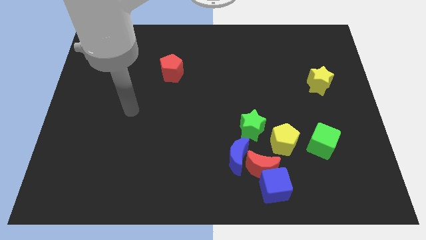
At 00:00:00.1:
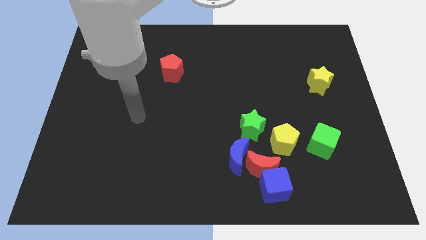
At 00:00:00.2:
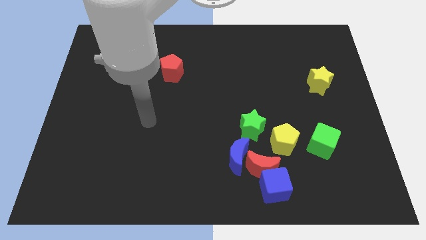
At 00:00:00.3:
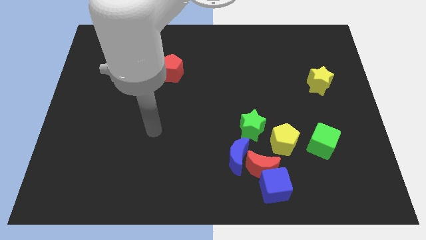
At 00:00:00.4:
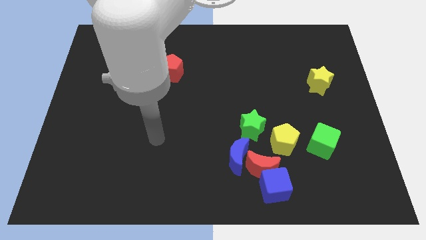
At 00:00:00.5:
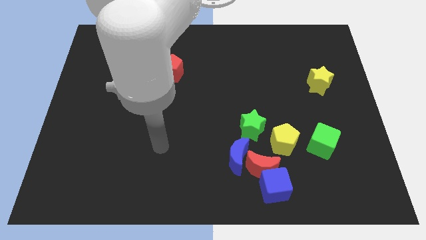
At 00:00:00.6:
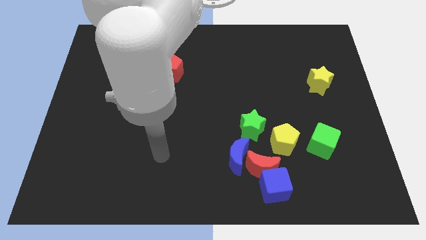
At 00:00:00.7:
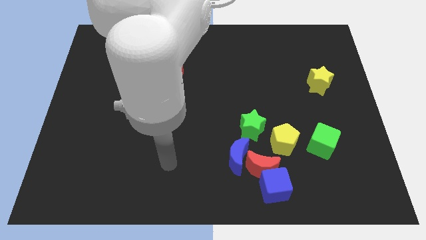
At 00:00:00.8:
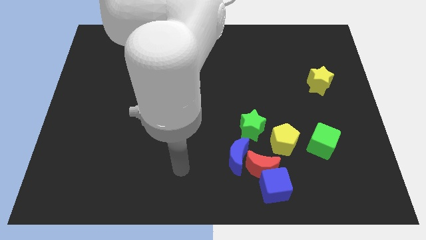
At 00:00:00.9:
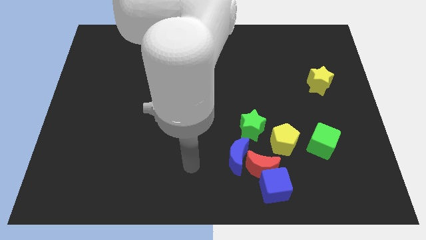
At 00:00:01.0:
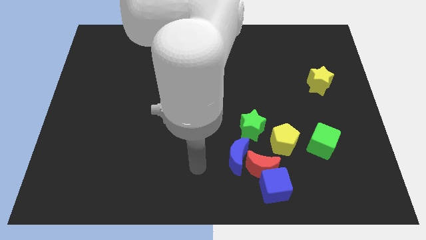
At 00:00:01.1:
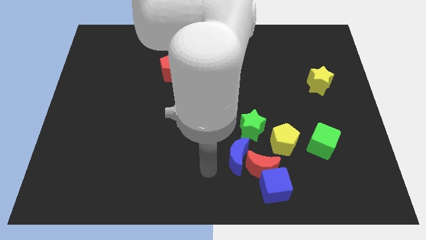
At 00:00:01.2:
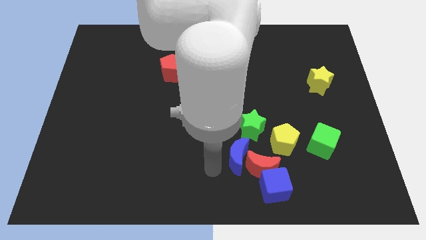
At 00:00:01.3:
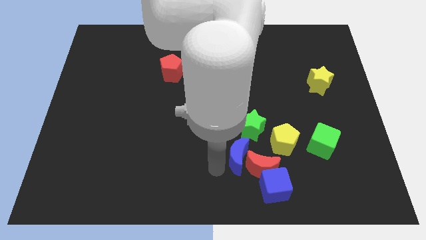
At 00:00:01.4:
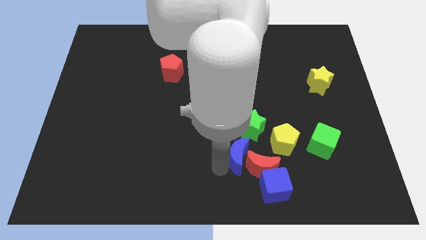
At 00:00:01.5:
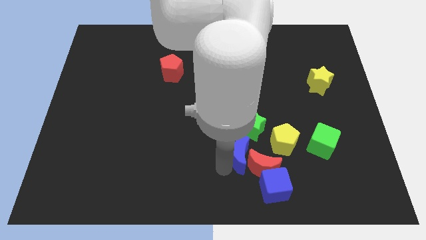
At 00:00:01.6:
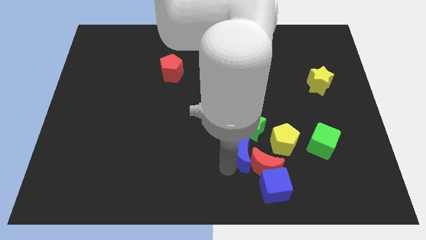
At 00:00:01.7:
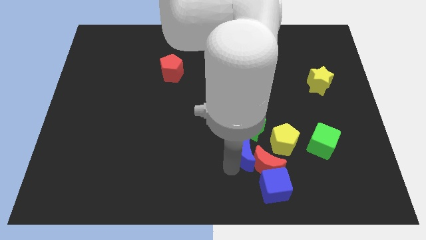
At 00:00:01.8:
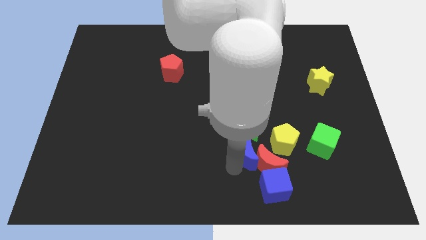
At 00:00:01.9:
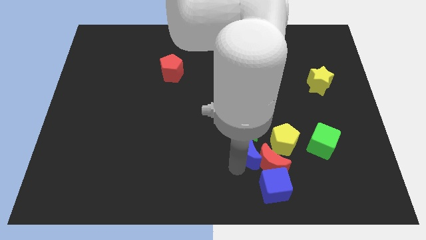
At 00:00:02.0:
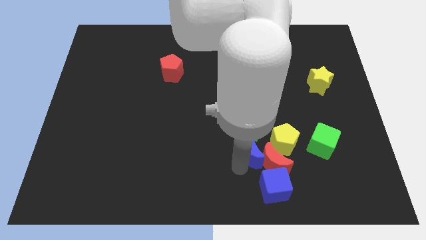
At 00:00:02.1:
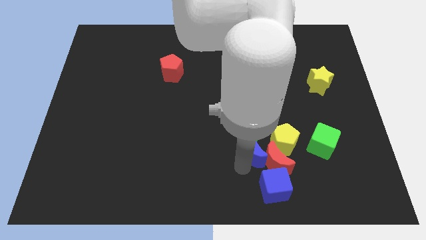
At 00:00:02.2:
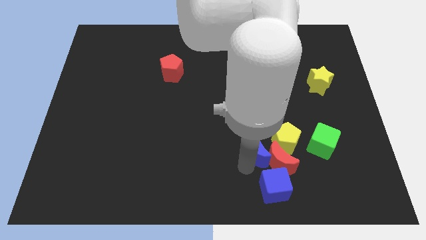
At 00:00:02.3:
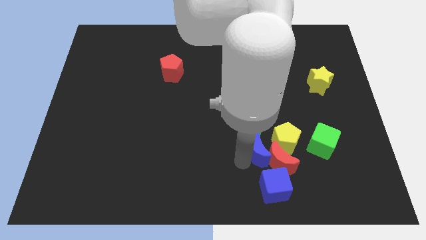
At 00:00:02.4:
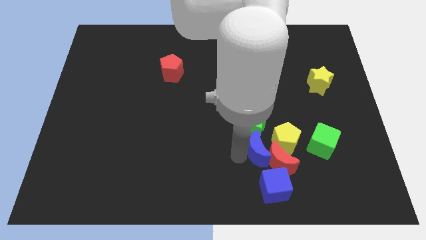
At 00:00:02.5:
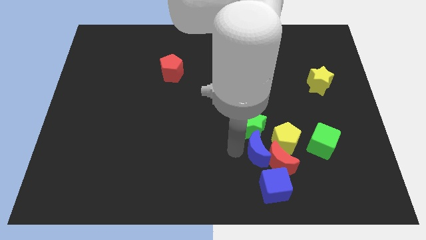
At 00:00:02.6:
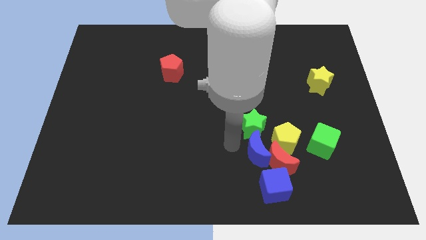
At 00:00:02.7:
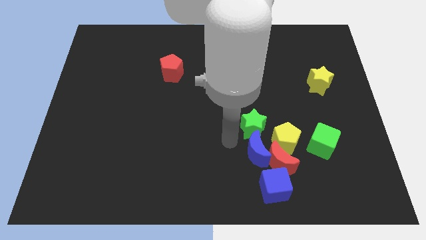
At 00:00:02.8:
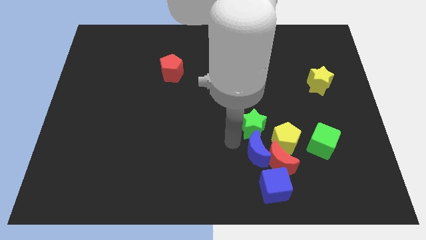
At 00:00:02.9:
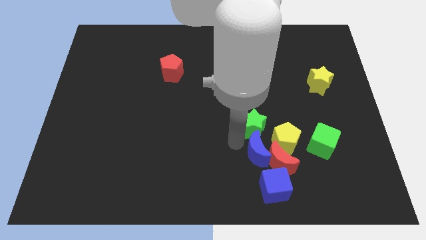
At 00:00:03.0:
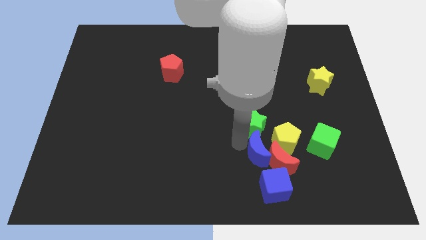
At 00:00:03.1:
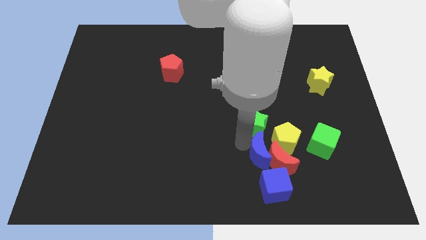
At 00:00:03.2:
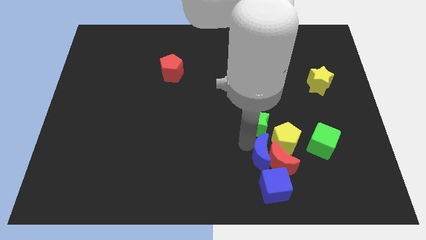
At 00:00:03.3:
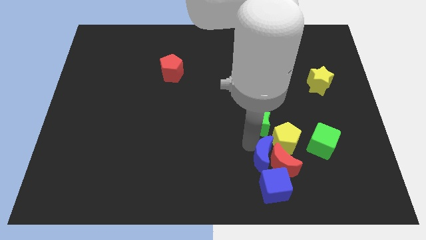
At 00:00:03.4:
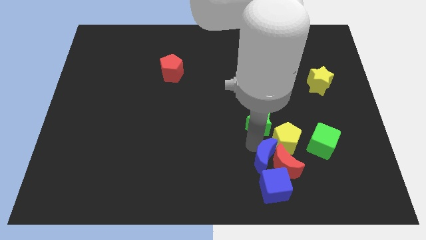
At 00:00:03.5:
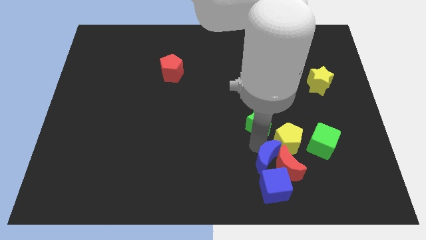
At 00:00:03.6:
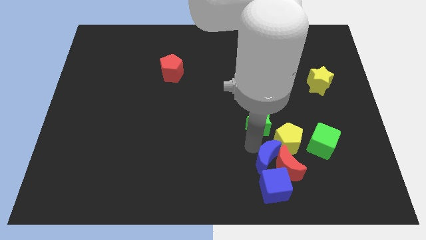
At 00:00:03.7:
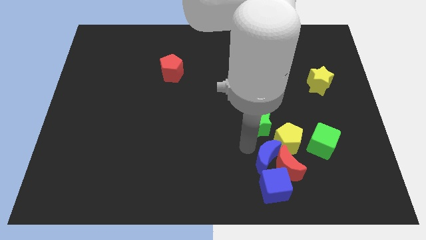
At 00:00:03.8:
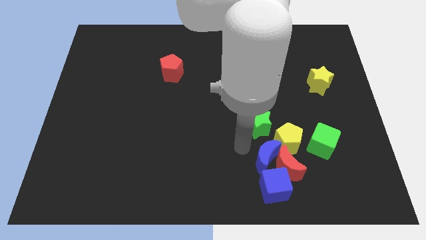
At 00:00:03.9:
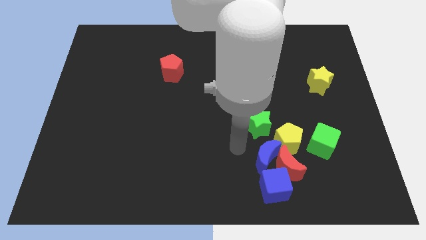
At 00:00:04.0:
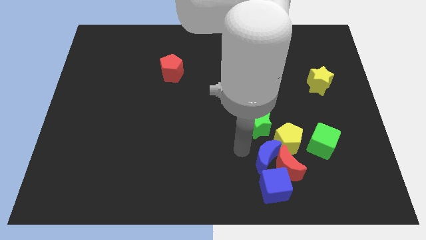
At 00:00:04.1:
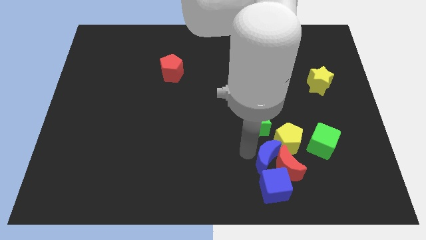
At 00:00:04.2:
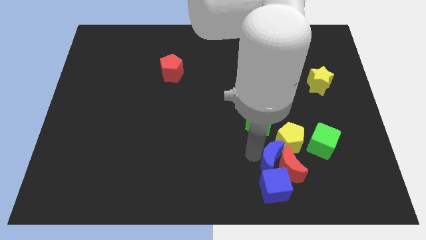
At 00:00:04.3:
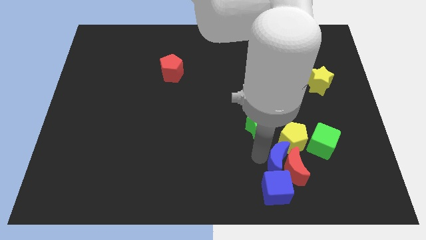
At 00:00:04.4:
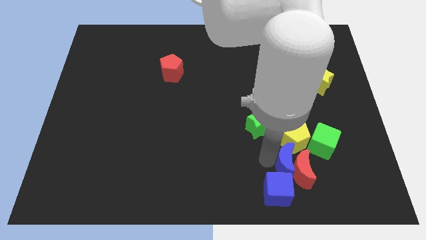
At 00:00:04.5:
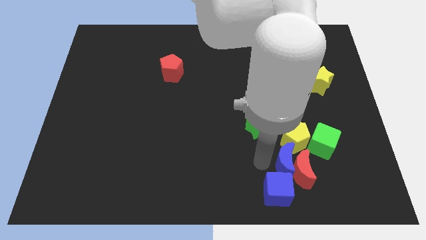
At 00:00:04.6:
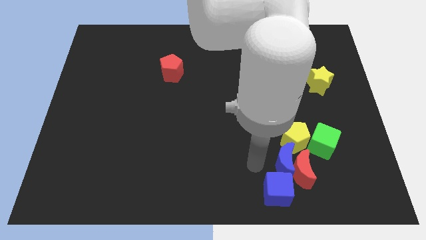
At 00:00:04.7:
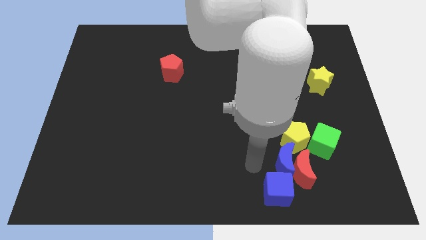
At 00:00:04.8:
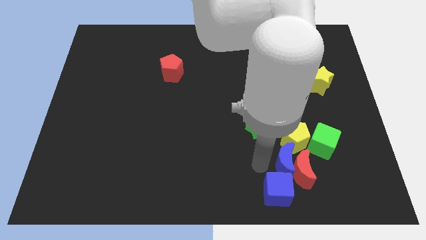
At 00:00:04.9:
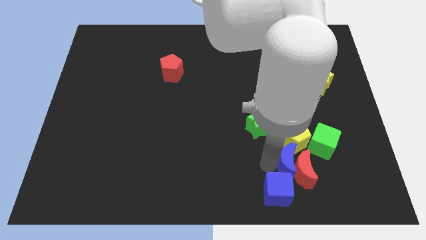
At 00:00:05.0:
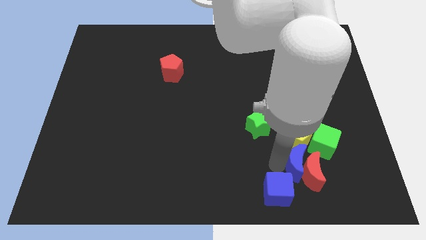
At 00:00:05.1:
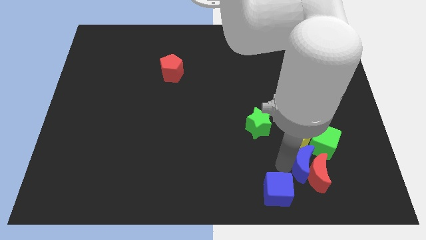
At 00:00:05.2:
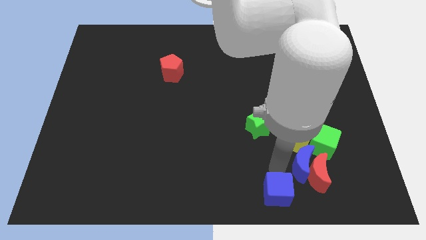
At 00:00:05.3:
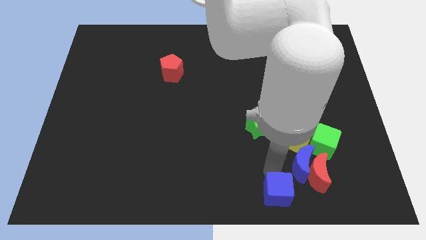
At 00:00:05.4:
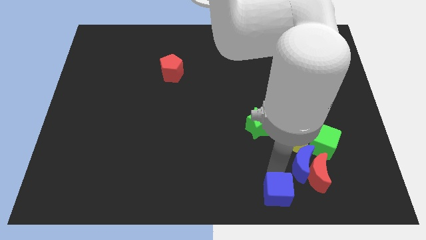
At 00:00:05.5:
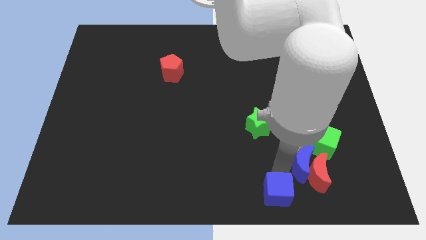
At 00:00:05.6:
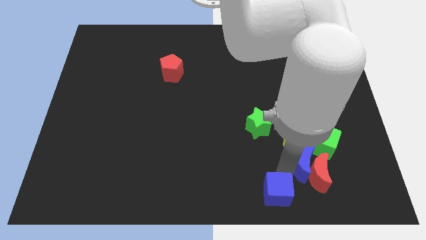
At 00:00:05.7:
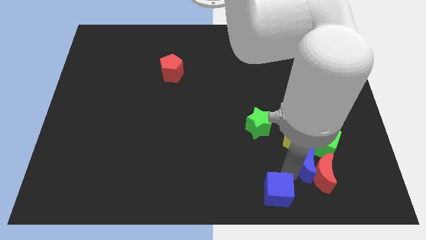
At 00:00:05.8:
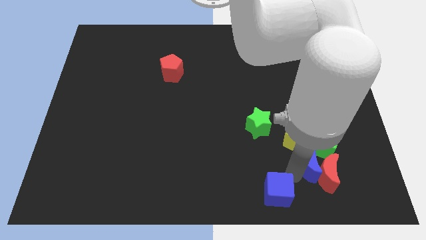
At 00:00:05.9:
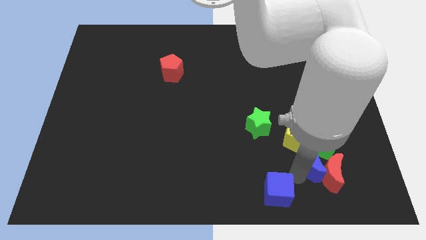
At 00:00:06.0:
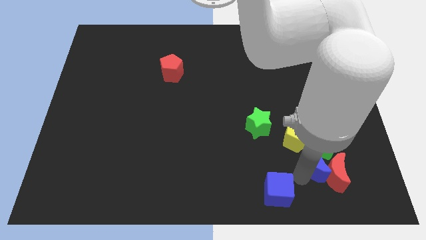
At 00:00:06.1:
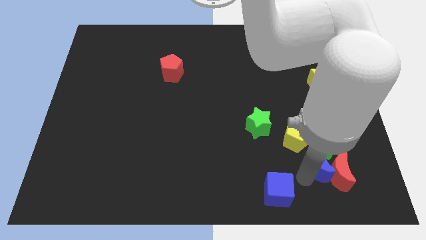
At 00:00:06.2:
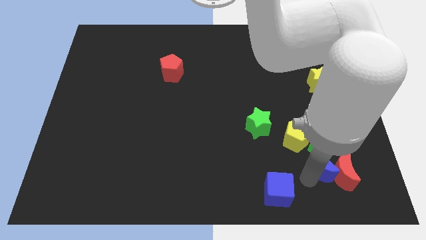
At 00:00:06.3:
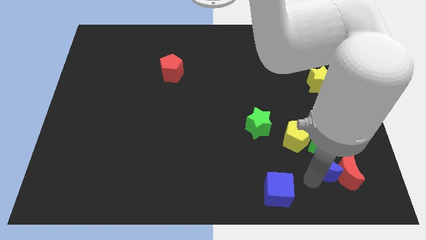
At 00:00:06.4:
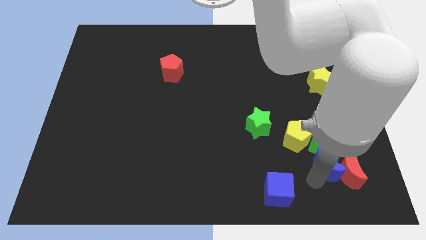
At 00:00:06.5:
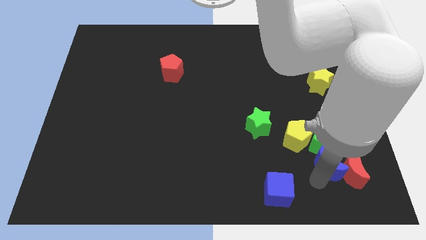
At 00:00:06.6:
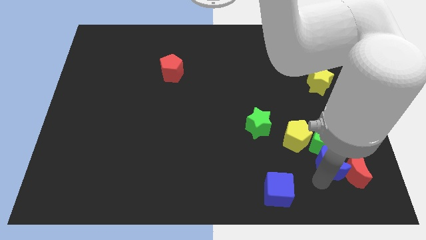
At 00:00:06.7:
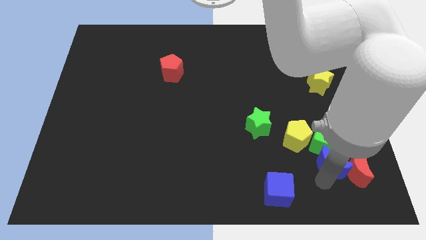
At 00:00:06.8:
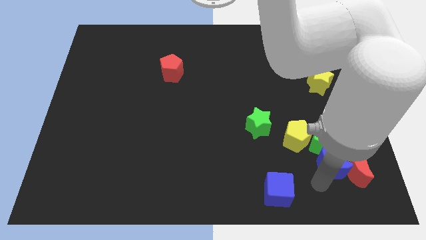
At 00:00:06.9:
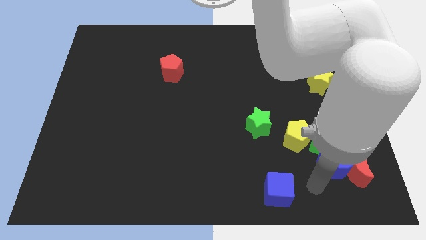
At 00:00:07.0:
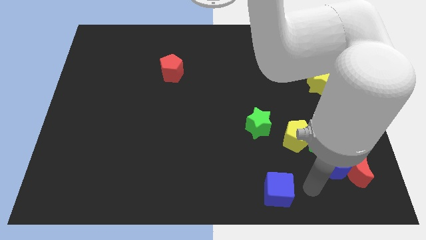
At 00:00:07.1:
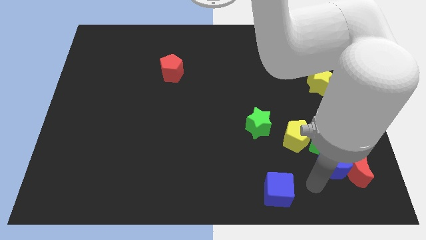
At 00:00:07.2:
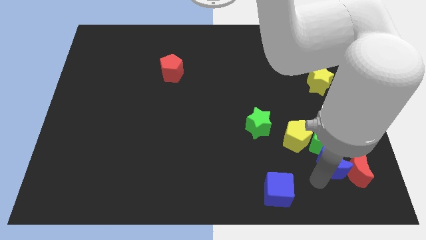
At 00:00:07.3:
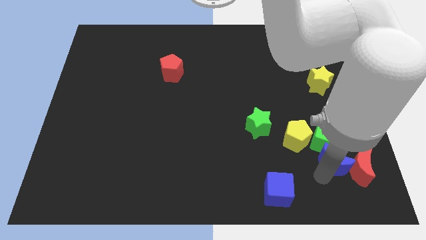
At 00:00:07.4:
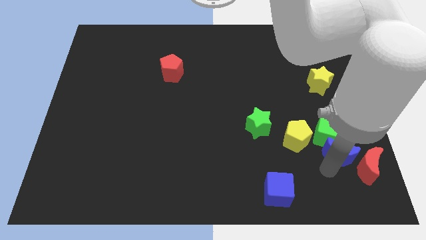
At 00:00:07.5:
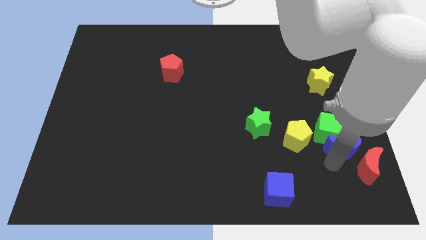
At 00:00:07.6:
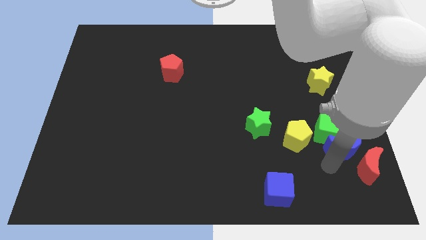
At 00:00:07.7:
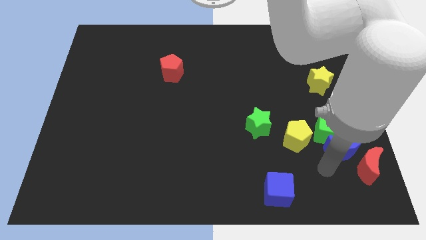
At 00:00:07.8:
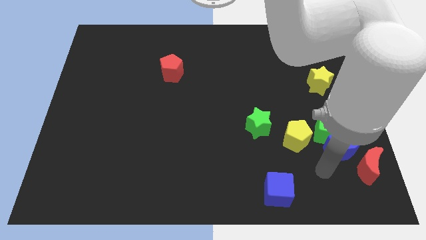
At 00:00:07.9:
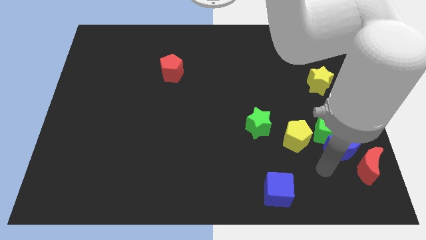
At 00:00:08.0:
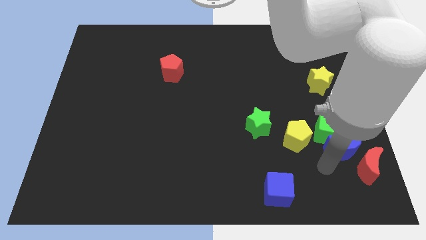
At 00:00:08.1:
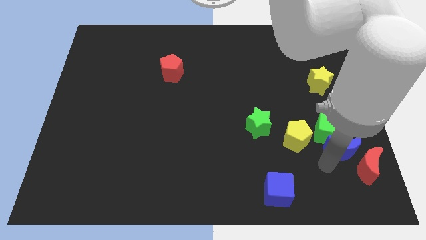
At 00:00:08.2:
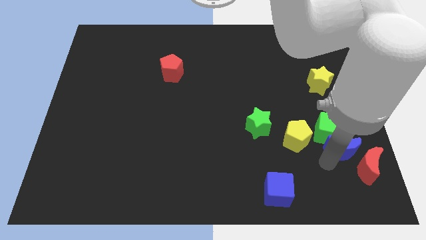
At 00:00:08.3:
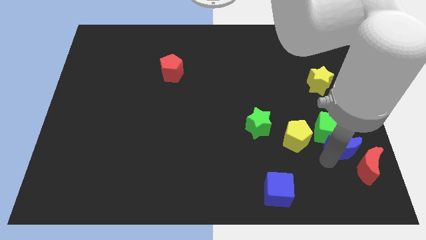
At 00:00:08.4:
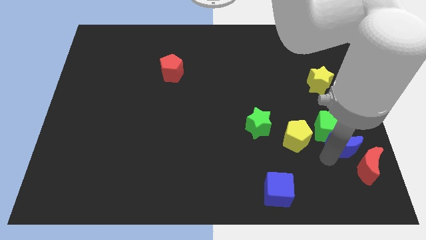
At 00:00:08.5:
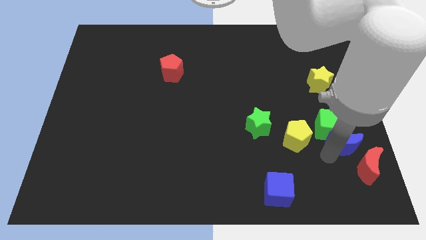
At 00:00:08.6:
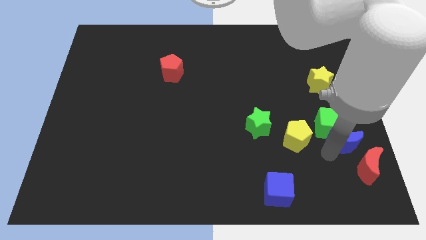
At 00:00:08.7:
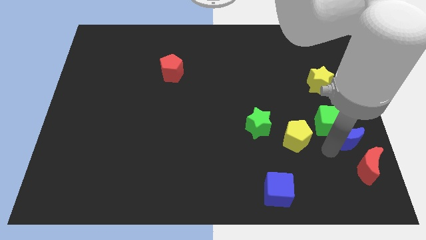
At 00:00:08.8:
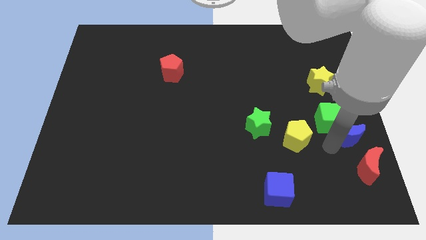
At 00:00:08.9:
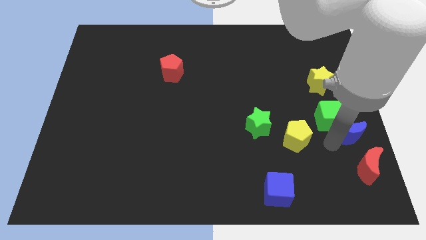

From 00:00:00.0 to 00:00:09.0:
move the blue moon to the center right
